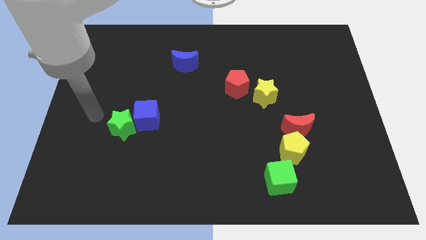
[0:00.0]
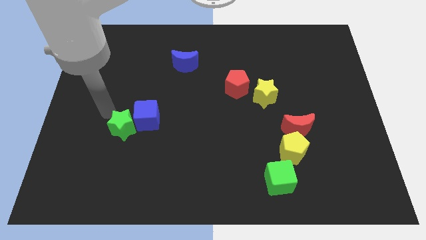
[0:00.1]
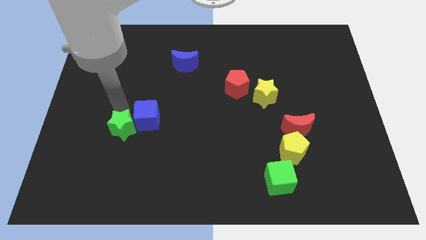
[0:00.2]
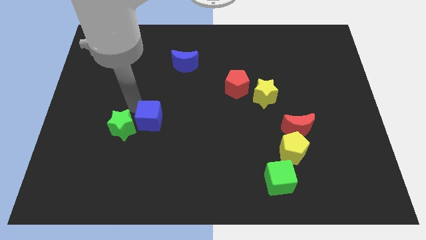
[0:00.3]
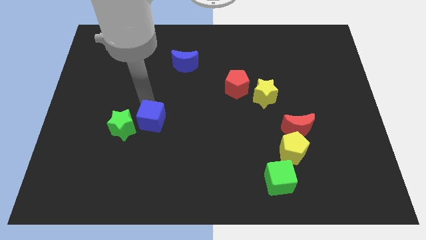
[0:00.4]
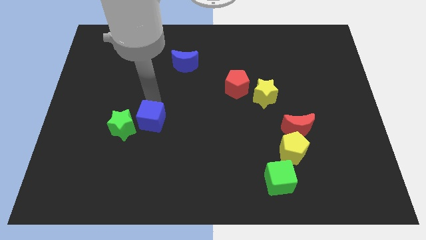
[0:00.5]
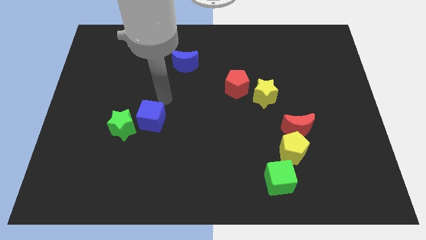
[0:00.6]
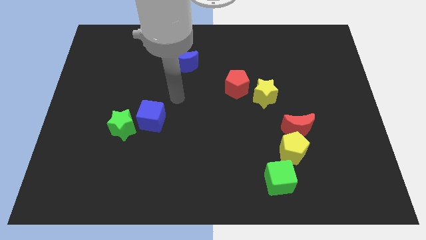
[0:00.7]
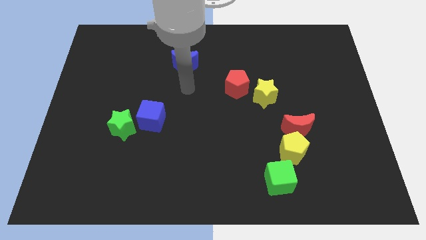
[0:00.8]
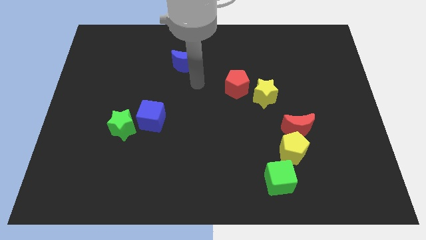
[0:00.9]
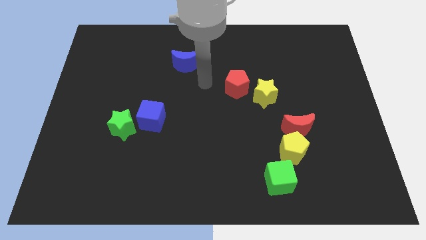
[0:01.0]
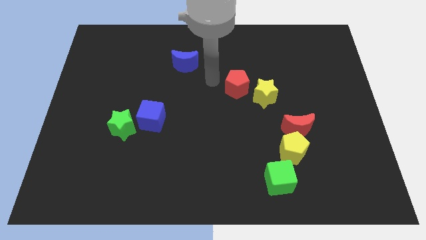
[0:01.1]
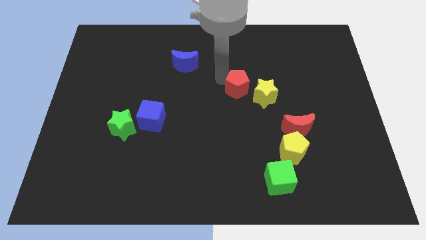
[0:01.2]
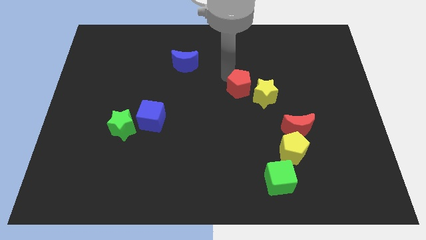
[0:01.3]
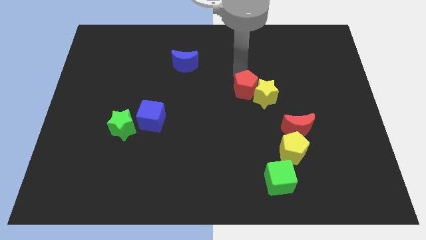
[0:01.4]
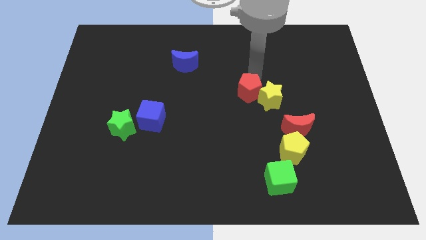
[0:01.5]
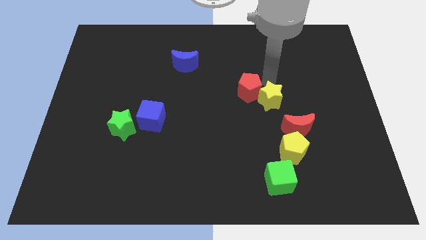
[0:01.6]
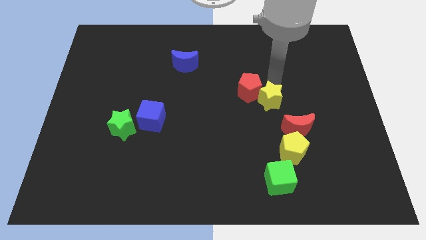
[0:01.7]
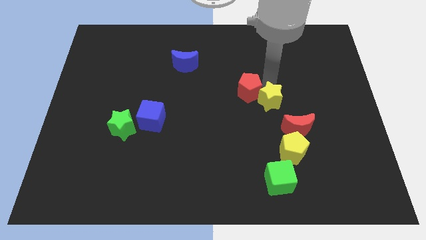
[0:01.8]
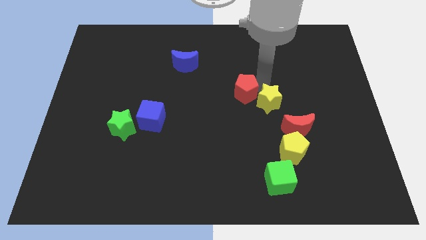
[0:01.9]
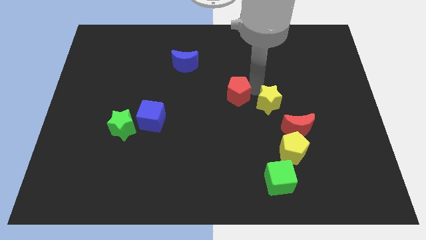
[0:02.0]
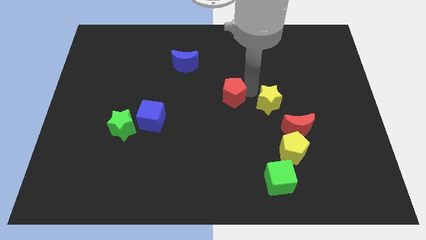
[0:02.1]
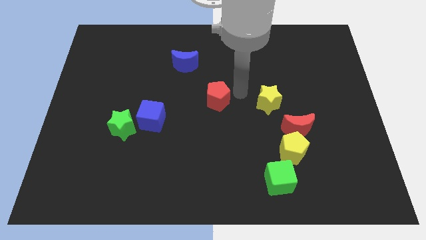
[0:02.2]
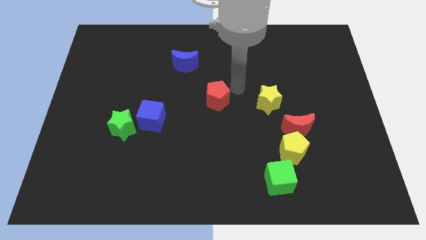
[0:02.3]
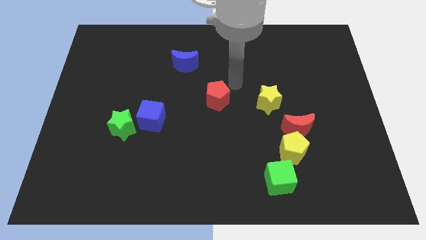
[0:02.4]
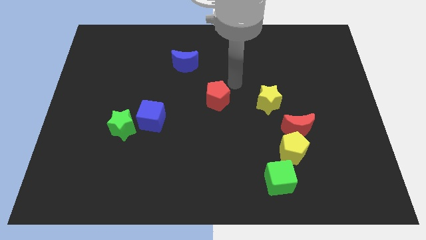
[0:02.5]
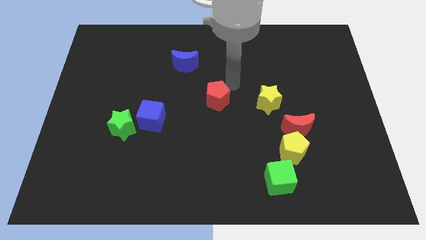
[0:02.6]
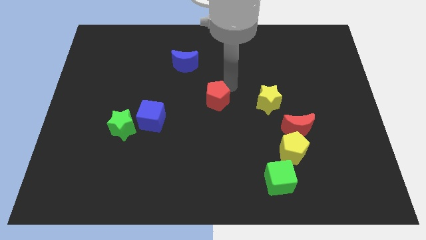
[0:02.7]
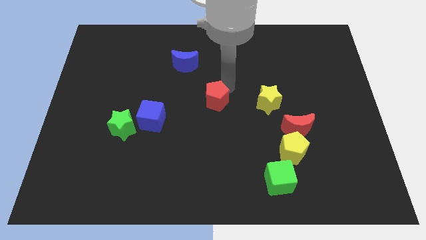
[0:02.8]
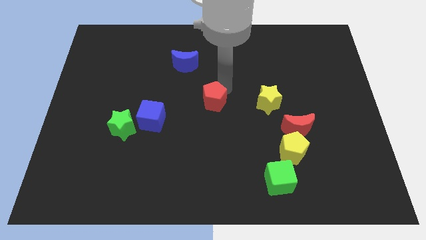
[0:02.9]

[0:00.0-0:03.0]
push the red pentagon slightly diagonally downwards and to the left

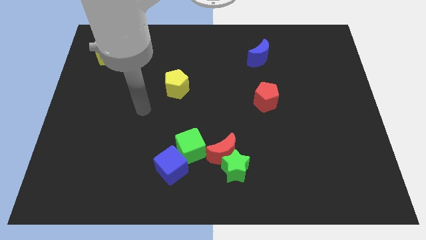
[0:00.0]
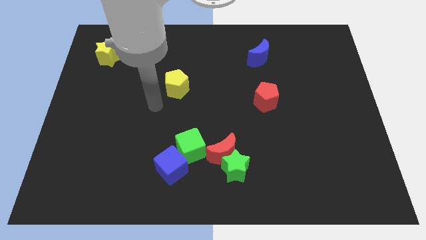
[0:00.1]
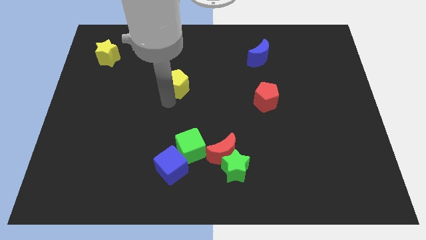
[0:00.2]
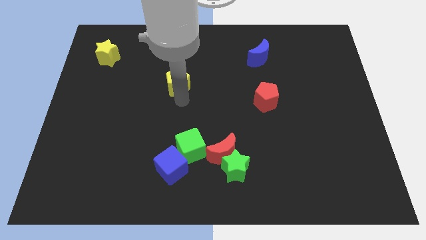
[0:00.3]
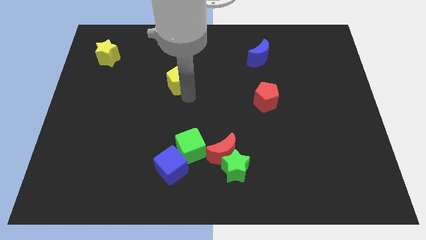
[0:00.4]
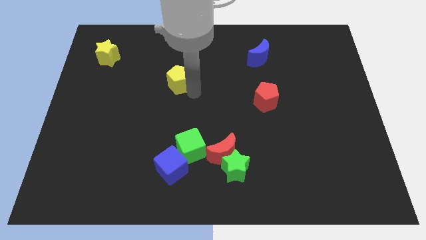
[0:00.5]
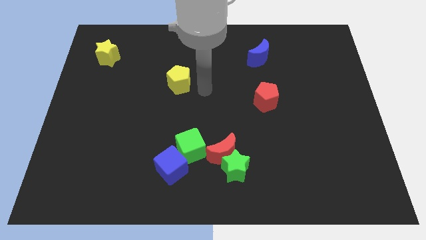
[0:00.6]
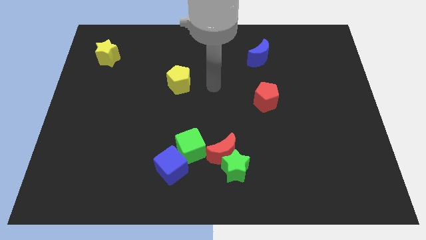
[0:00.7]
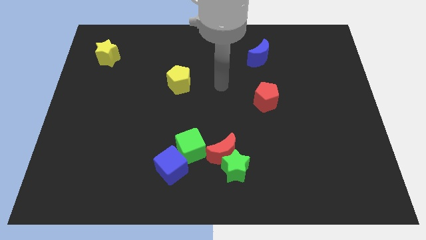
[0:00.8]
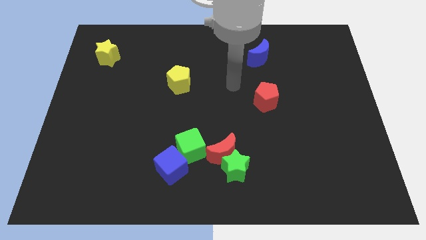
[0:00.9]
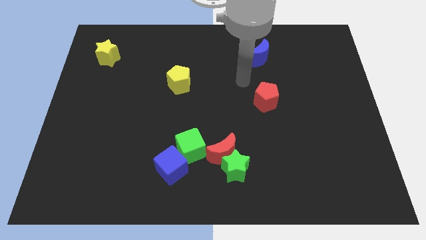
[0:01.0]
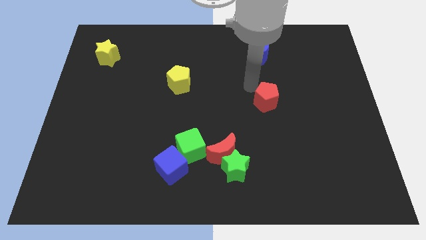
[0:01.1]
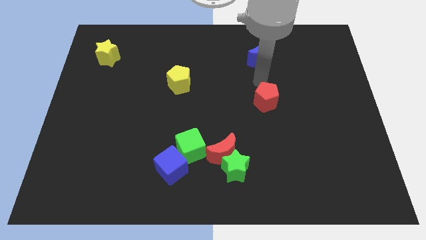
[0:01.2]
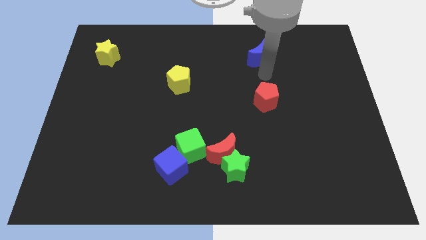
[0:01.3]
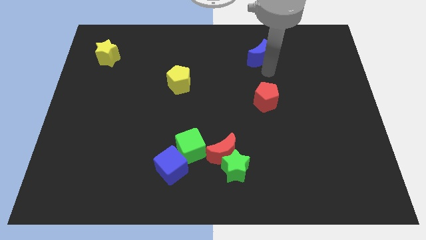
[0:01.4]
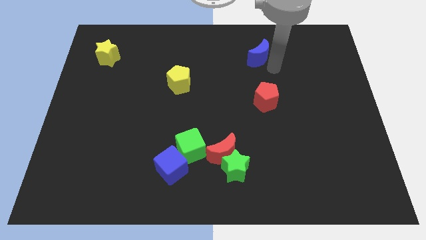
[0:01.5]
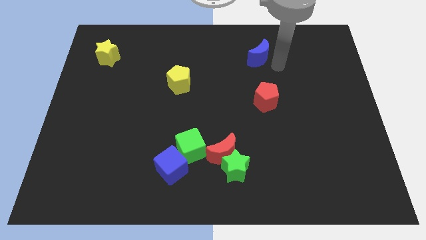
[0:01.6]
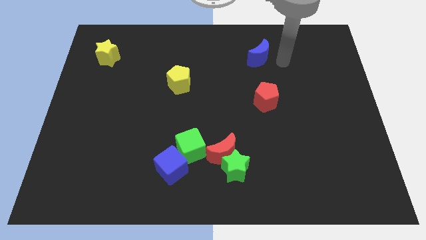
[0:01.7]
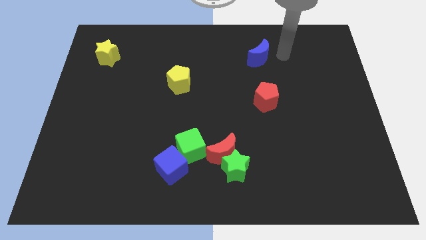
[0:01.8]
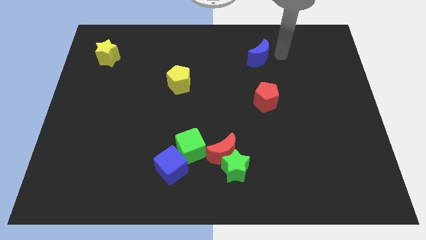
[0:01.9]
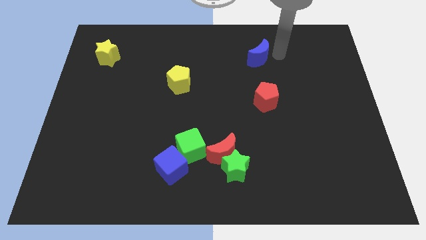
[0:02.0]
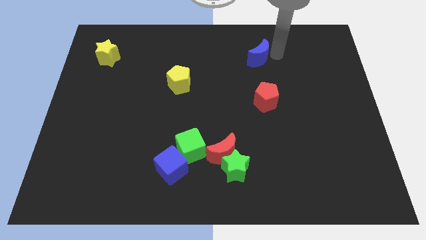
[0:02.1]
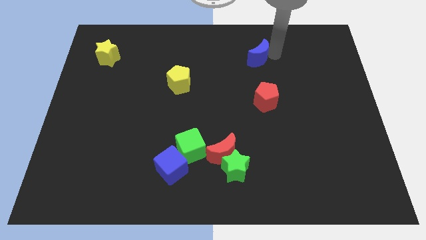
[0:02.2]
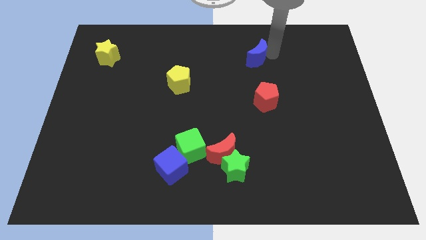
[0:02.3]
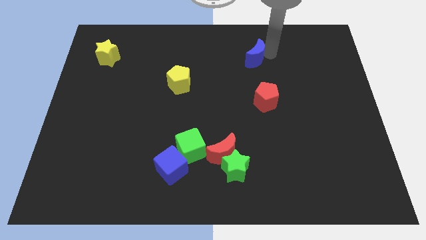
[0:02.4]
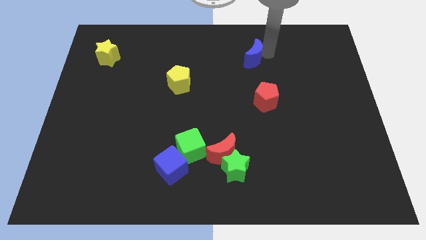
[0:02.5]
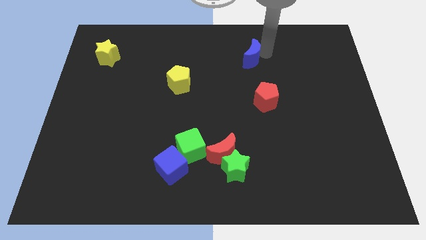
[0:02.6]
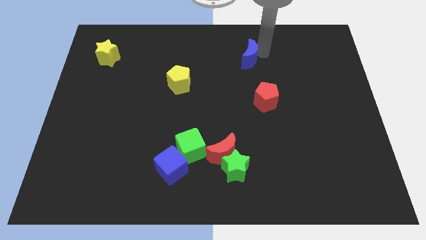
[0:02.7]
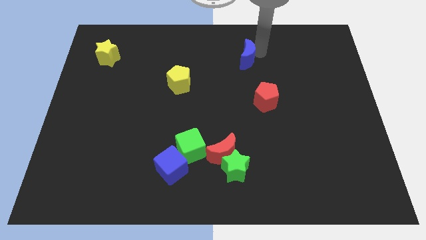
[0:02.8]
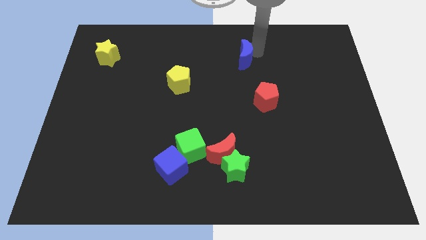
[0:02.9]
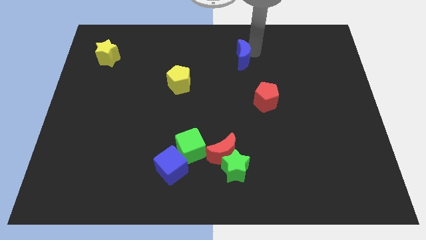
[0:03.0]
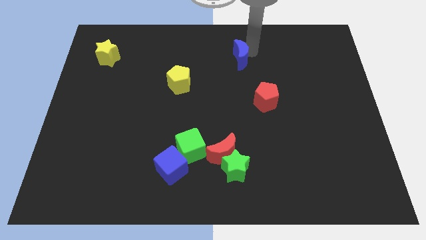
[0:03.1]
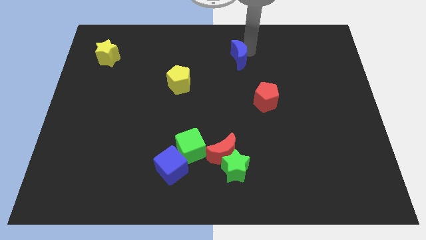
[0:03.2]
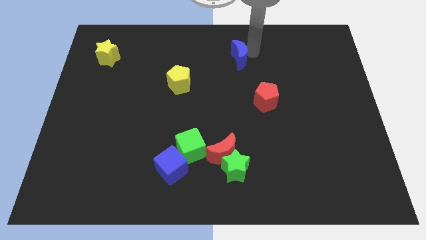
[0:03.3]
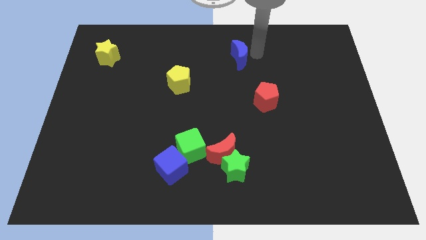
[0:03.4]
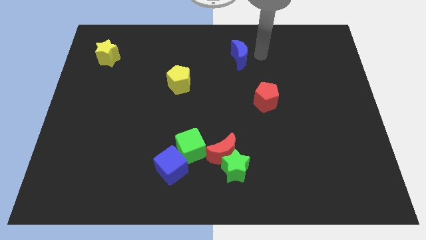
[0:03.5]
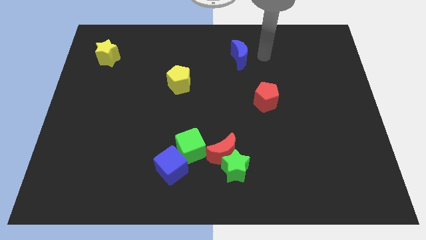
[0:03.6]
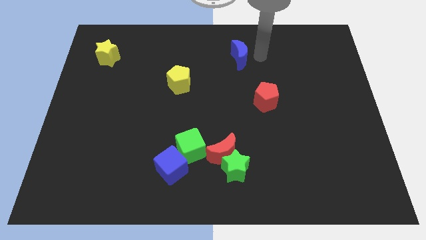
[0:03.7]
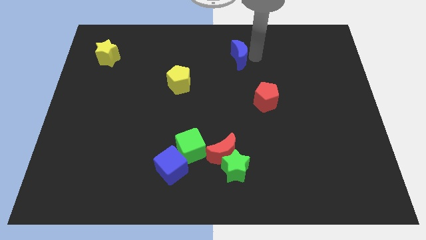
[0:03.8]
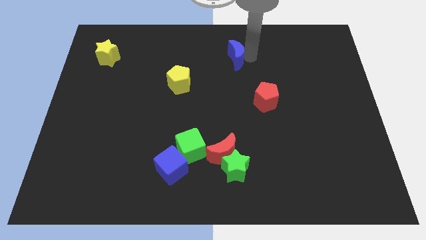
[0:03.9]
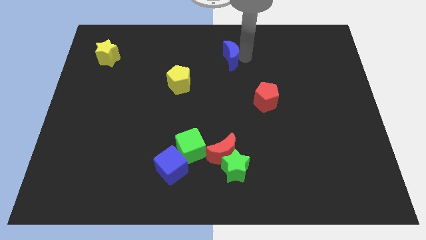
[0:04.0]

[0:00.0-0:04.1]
push the blue moon to the left a bit

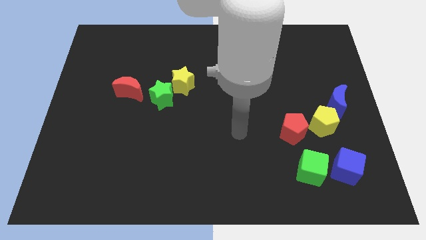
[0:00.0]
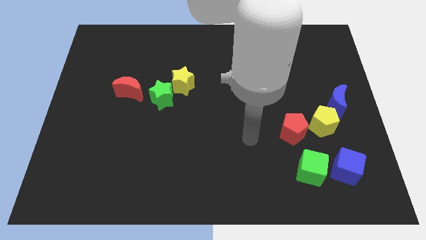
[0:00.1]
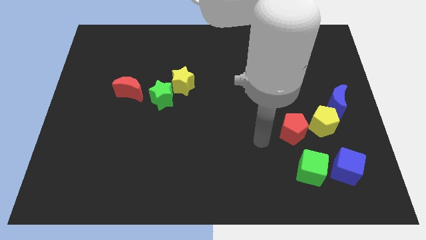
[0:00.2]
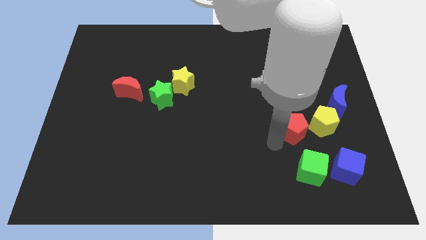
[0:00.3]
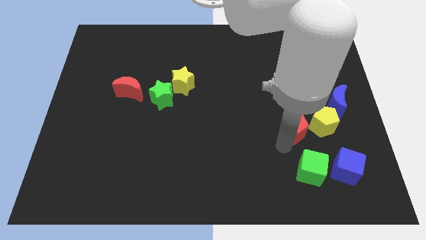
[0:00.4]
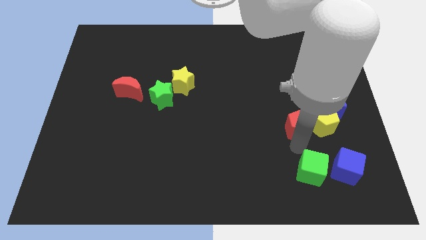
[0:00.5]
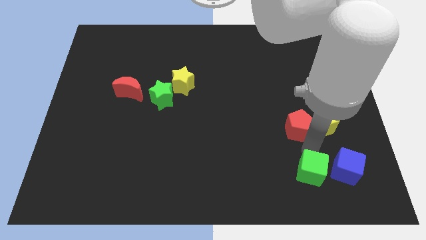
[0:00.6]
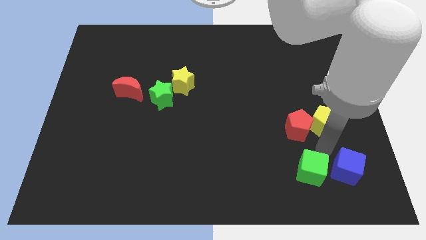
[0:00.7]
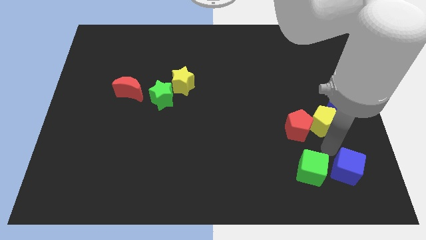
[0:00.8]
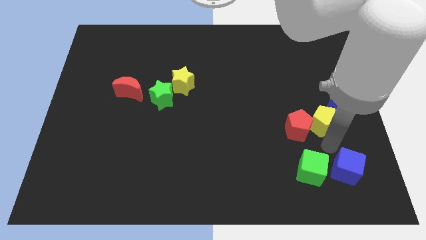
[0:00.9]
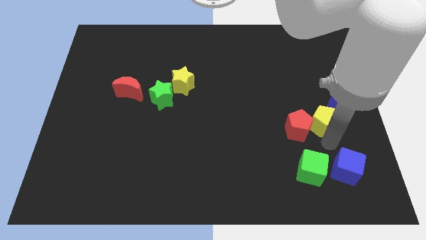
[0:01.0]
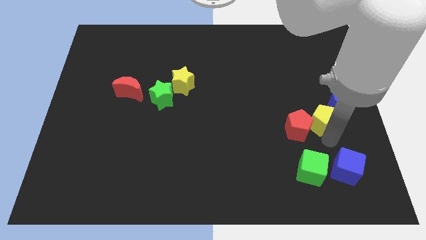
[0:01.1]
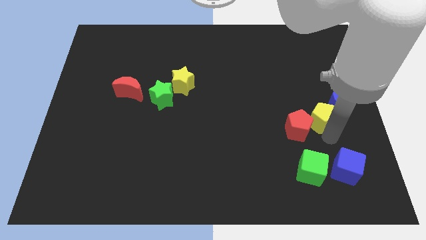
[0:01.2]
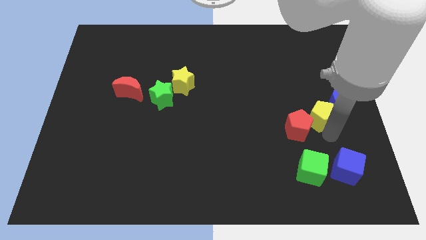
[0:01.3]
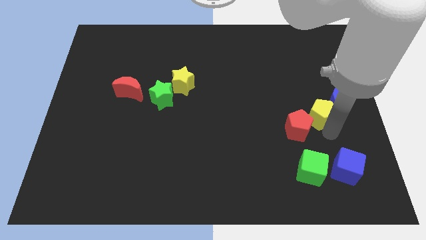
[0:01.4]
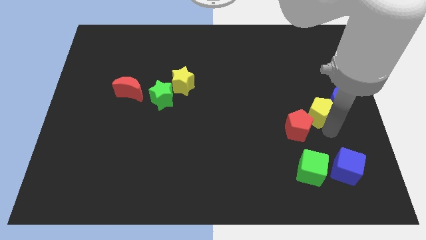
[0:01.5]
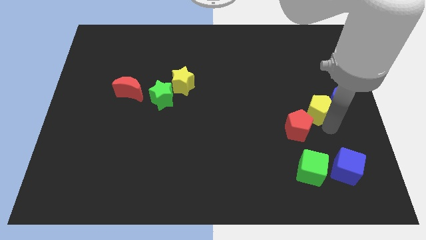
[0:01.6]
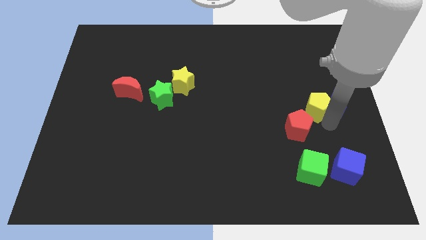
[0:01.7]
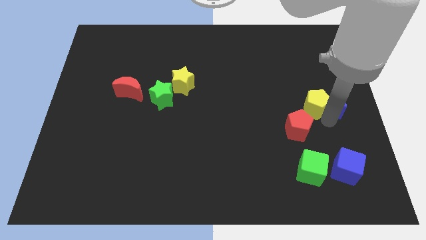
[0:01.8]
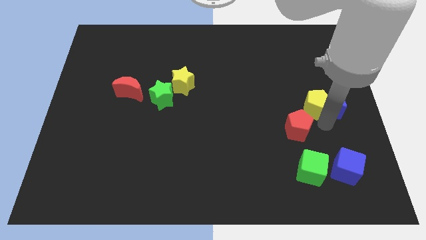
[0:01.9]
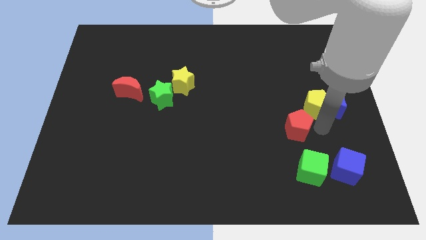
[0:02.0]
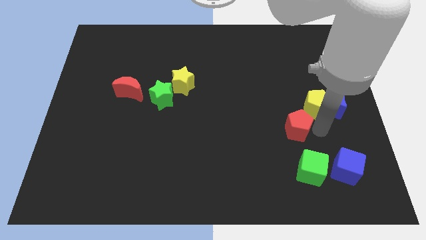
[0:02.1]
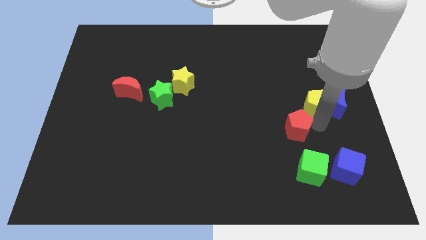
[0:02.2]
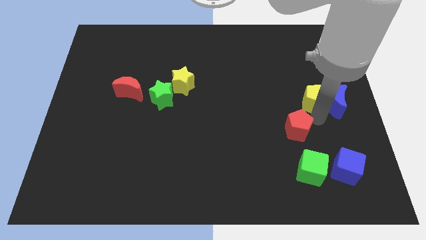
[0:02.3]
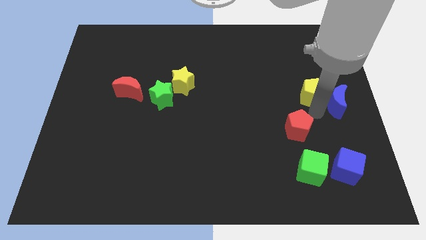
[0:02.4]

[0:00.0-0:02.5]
slightly push the yellow pentagon upwards
